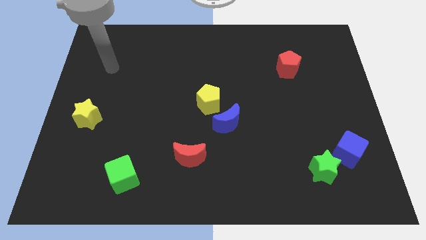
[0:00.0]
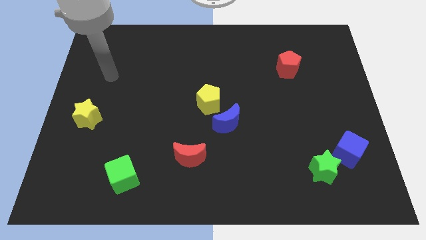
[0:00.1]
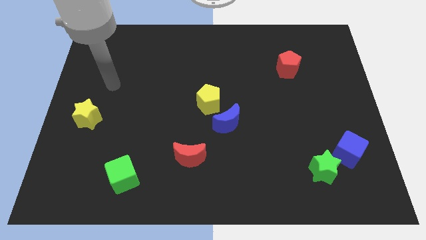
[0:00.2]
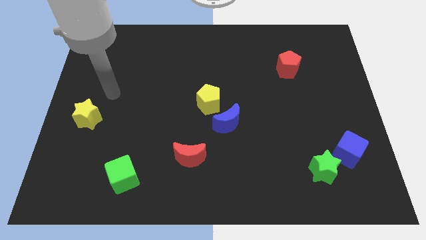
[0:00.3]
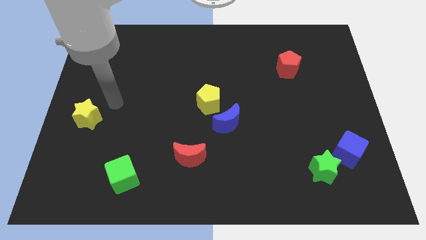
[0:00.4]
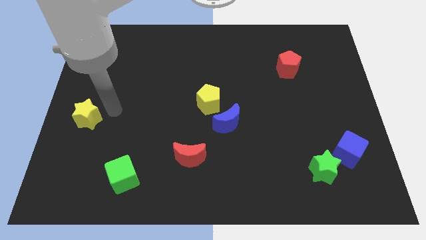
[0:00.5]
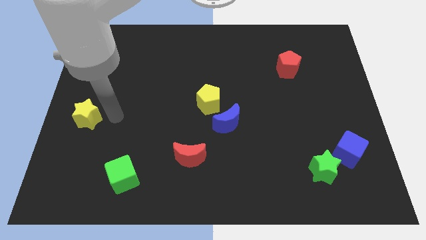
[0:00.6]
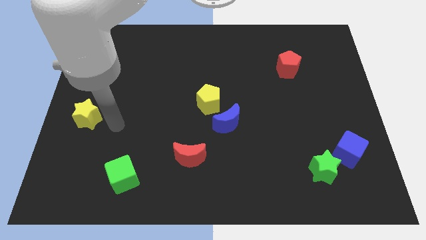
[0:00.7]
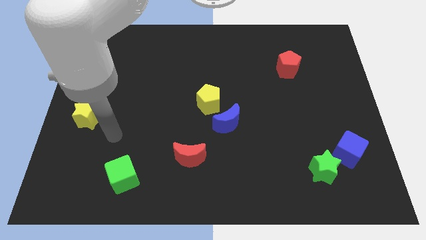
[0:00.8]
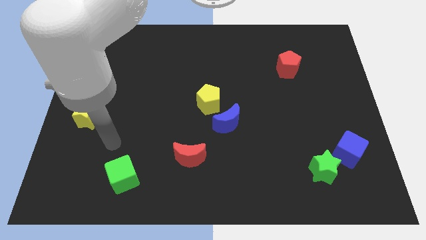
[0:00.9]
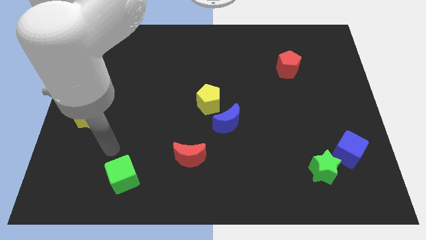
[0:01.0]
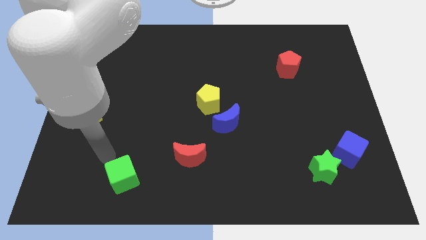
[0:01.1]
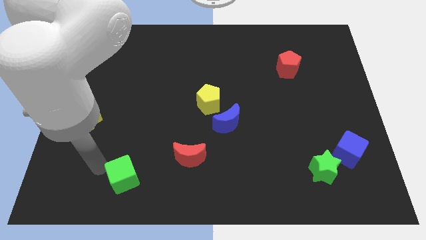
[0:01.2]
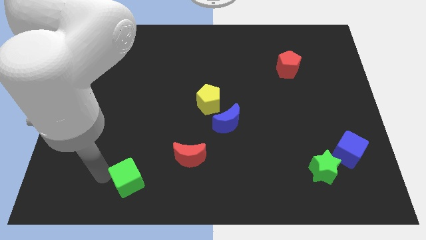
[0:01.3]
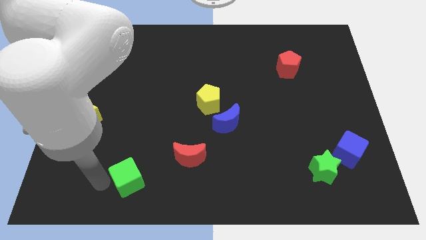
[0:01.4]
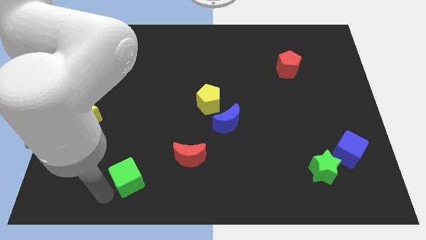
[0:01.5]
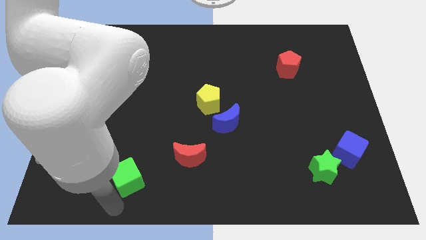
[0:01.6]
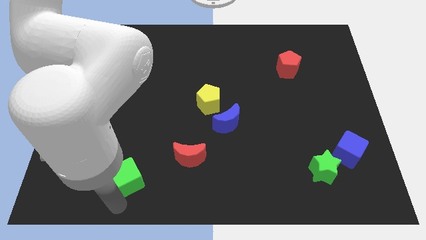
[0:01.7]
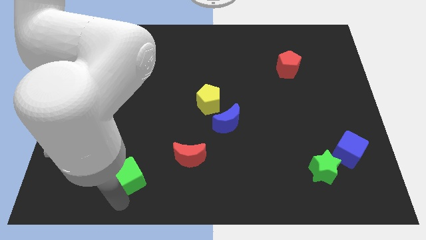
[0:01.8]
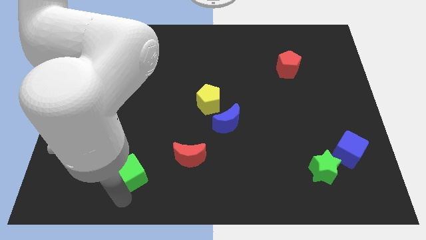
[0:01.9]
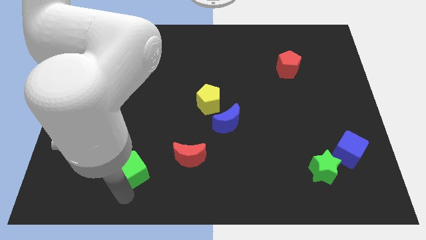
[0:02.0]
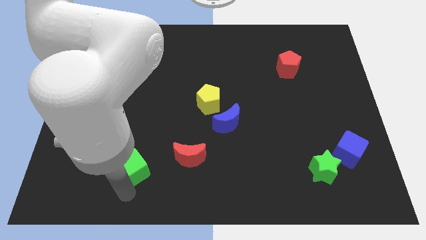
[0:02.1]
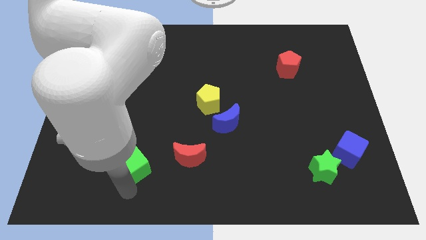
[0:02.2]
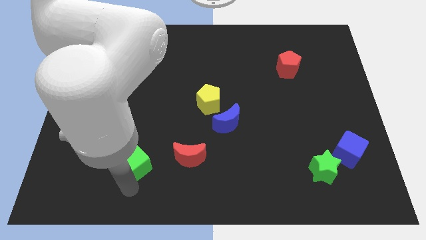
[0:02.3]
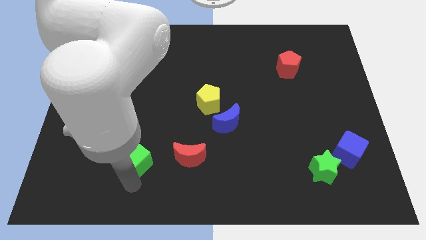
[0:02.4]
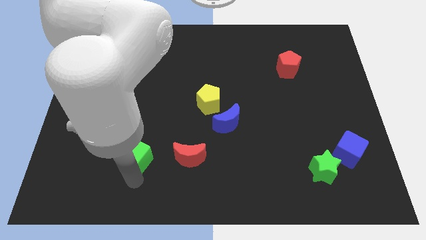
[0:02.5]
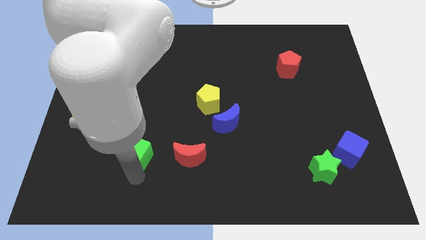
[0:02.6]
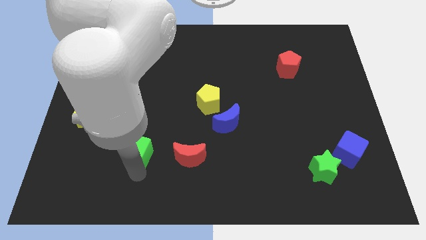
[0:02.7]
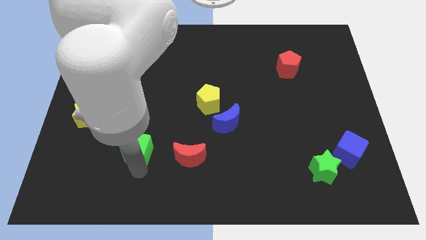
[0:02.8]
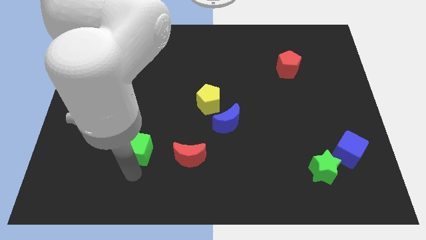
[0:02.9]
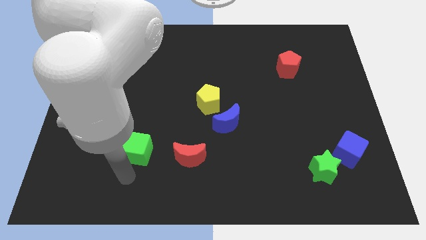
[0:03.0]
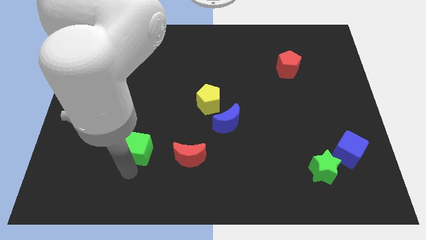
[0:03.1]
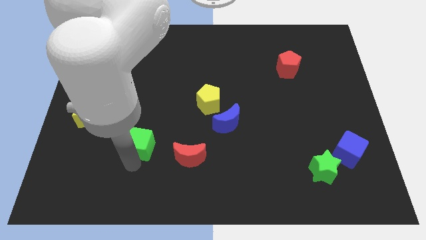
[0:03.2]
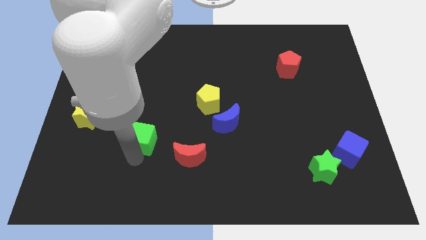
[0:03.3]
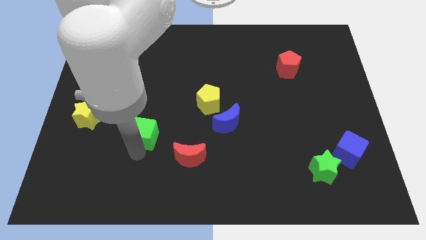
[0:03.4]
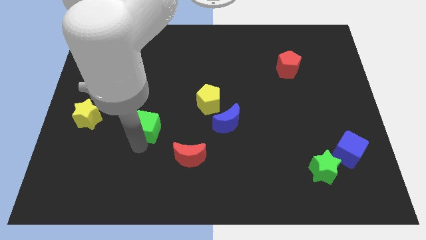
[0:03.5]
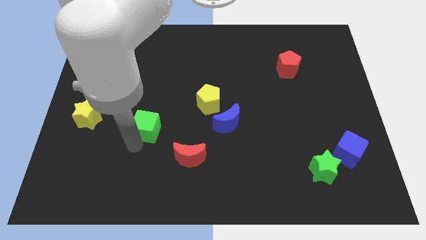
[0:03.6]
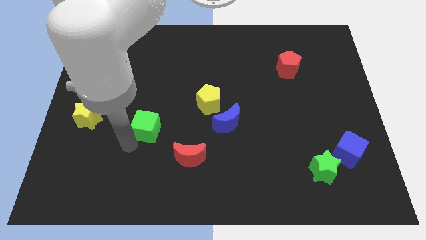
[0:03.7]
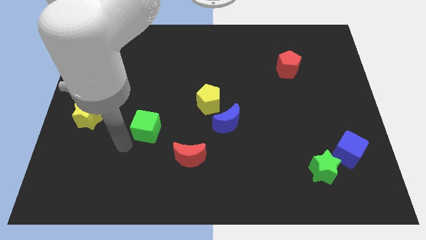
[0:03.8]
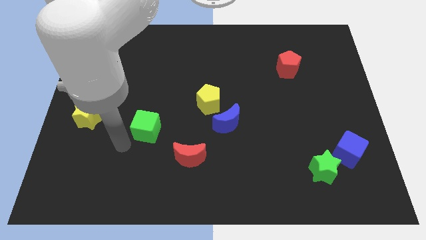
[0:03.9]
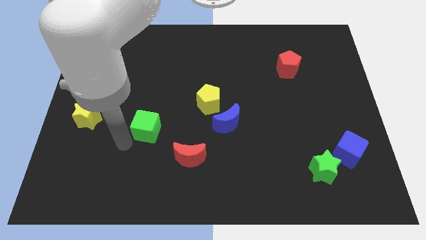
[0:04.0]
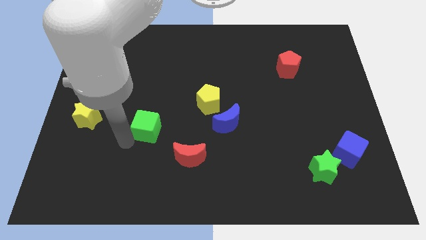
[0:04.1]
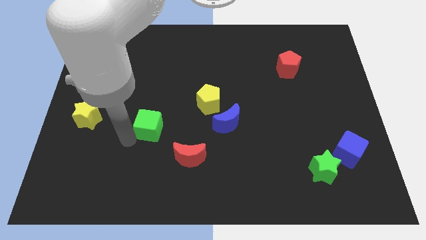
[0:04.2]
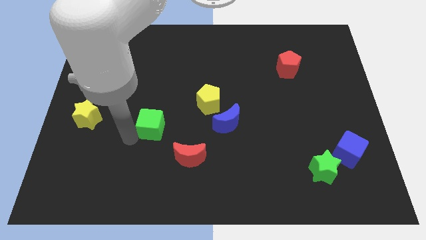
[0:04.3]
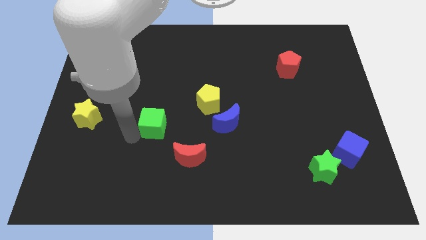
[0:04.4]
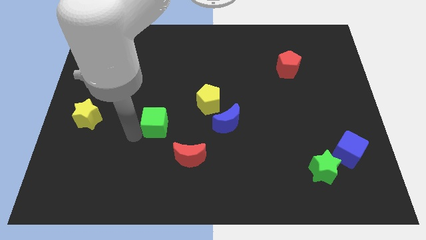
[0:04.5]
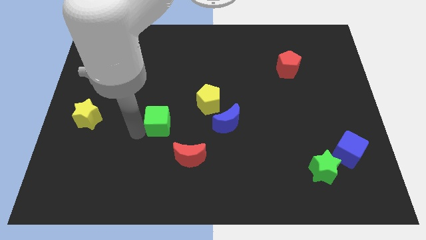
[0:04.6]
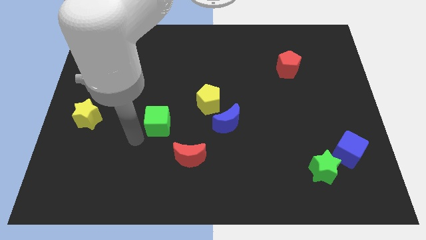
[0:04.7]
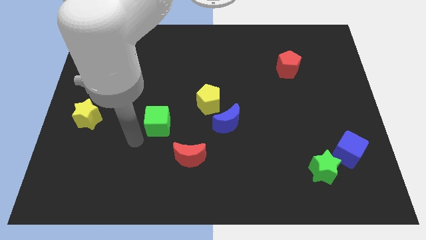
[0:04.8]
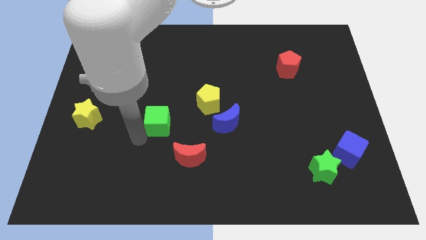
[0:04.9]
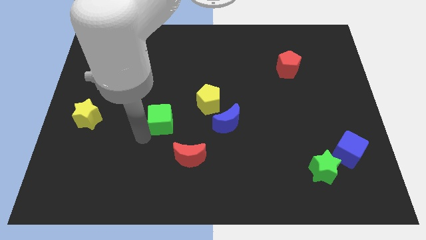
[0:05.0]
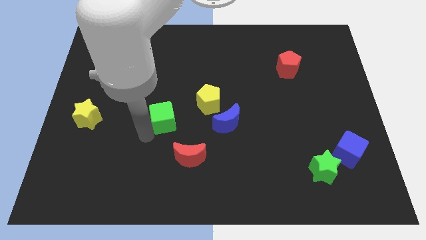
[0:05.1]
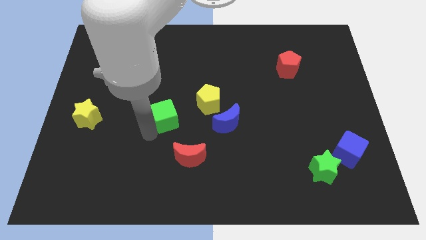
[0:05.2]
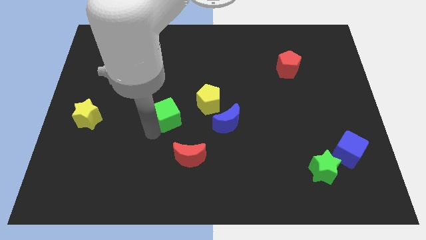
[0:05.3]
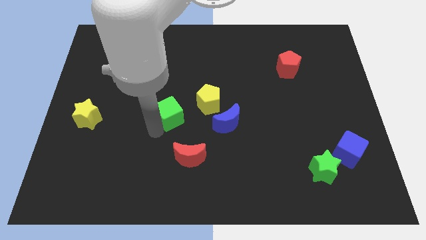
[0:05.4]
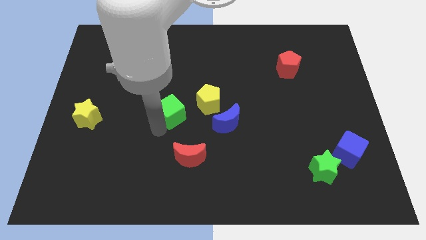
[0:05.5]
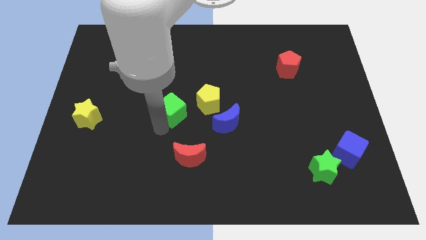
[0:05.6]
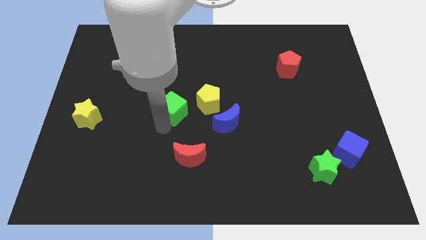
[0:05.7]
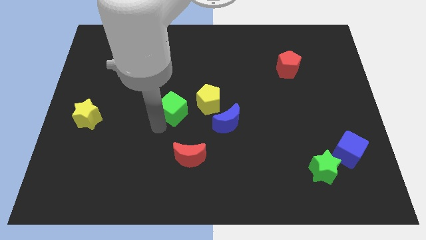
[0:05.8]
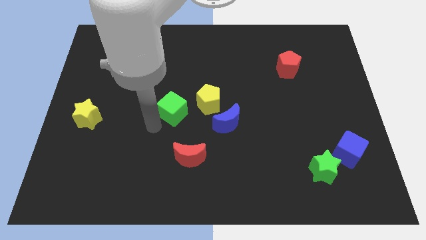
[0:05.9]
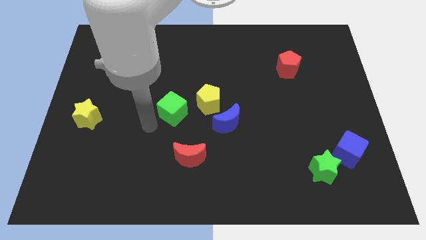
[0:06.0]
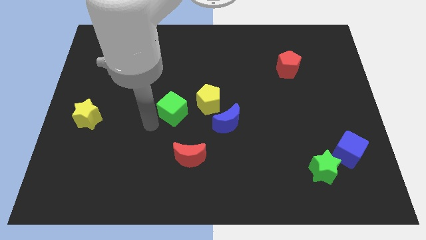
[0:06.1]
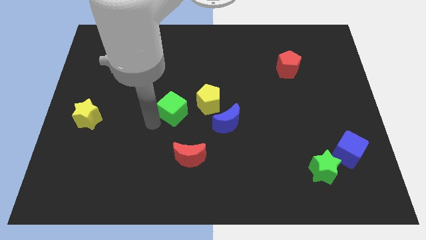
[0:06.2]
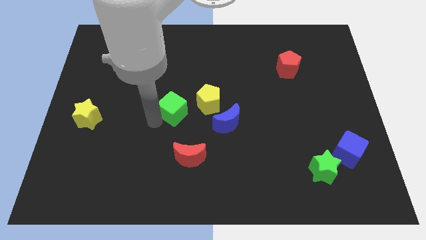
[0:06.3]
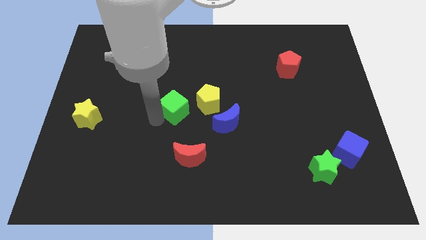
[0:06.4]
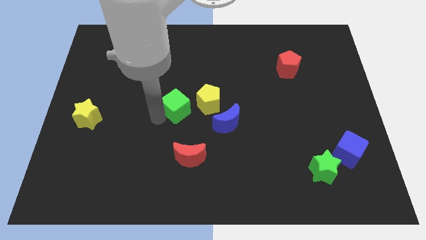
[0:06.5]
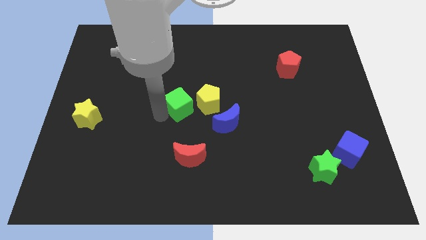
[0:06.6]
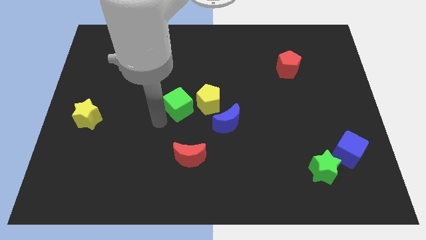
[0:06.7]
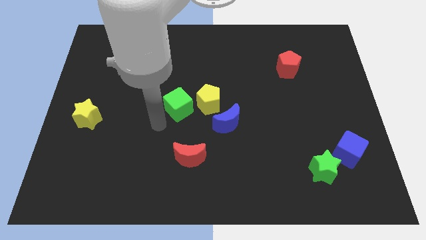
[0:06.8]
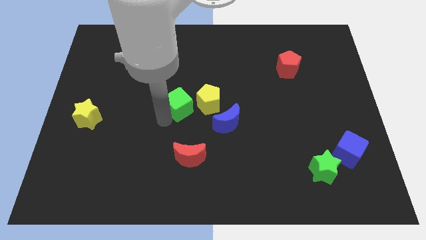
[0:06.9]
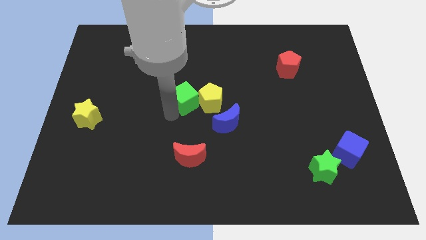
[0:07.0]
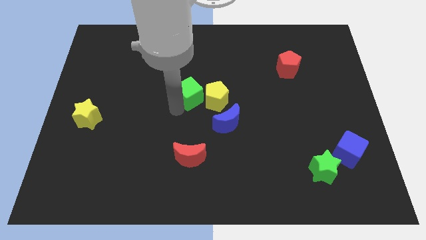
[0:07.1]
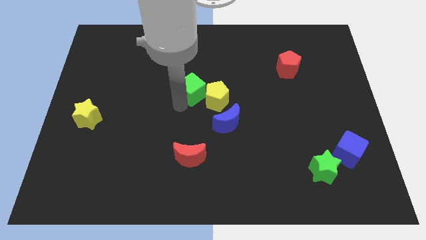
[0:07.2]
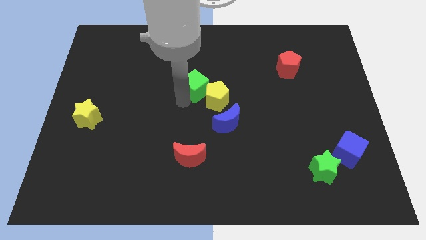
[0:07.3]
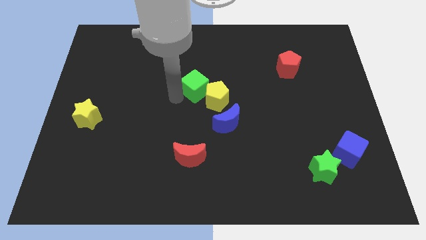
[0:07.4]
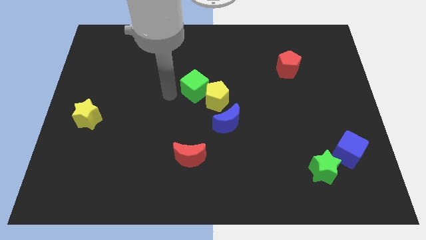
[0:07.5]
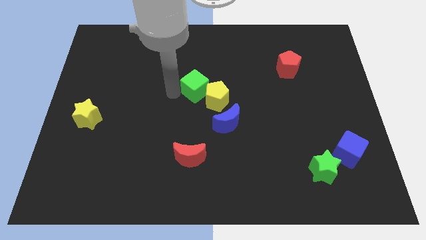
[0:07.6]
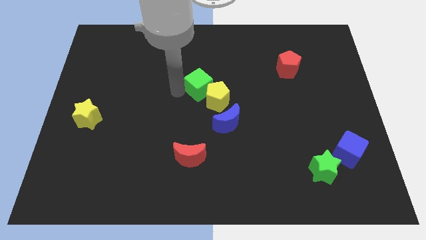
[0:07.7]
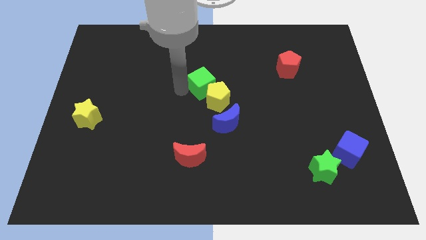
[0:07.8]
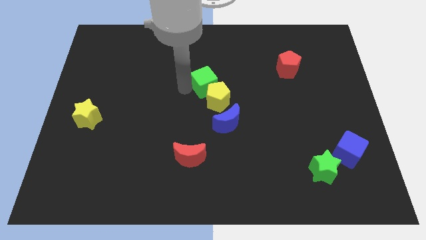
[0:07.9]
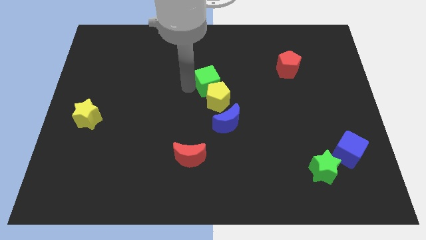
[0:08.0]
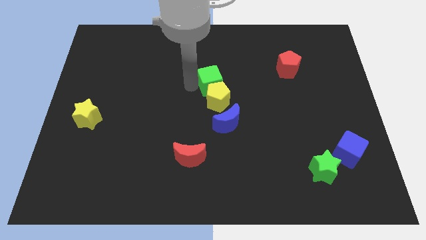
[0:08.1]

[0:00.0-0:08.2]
push the green cube diagonally up and to the right of the yellow pentagon
